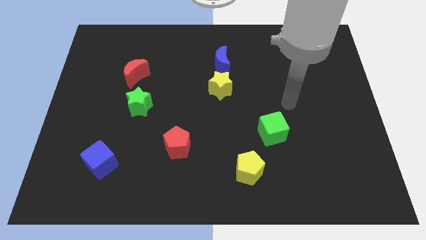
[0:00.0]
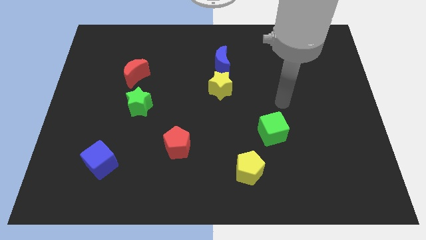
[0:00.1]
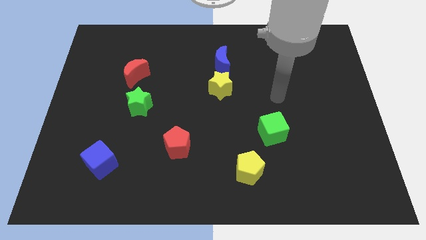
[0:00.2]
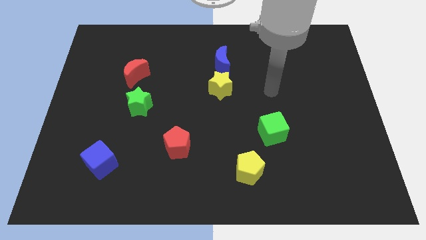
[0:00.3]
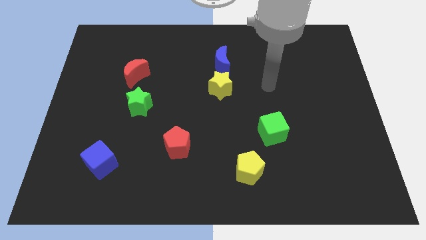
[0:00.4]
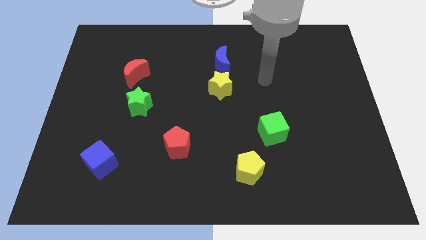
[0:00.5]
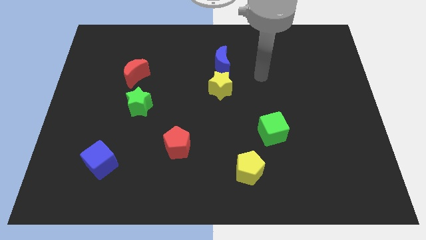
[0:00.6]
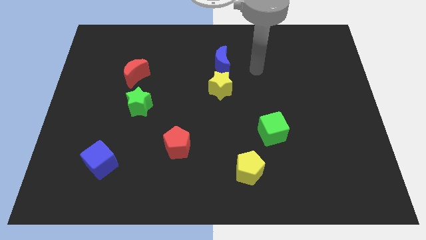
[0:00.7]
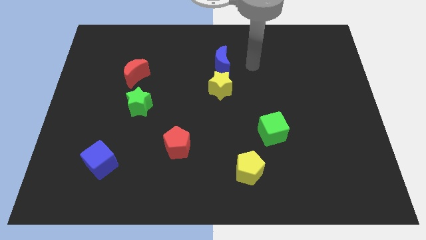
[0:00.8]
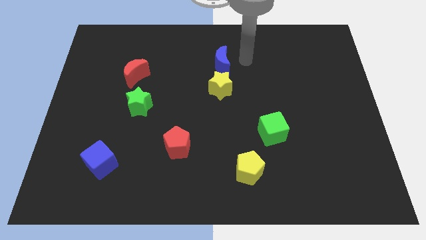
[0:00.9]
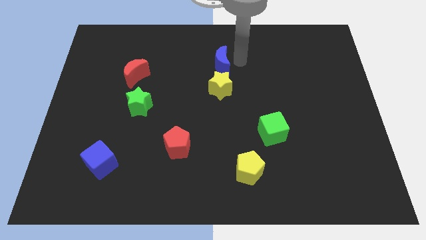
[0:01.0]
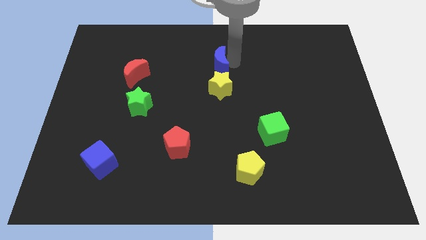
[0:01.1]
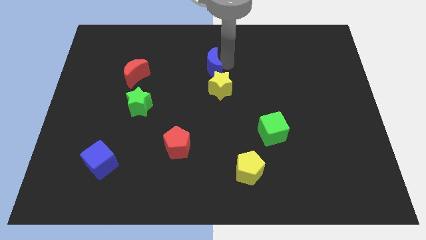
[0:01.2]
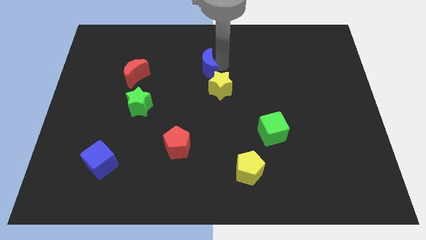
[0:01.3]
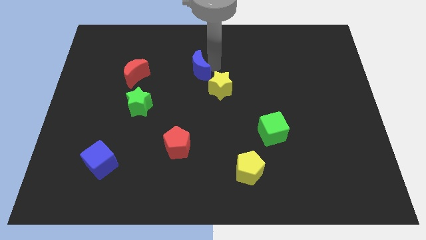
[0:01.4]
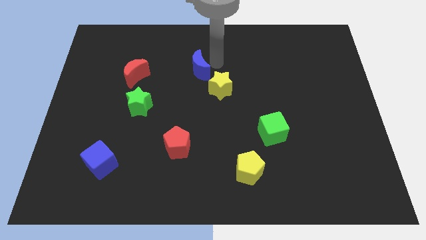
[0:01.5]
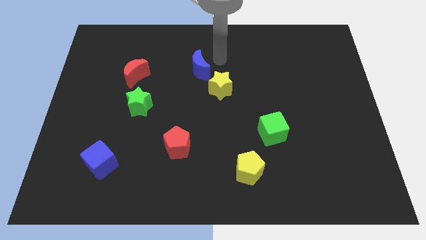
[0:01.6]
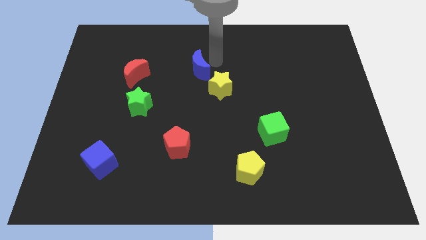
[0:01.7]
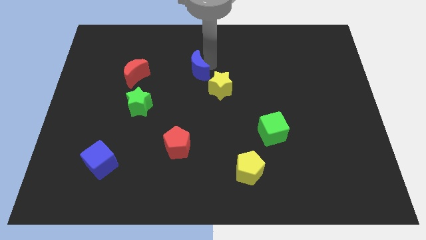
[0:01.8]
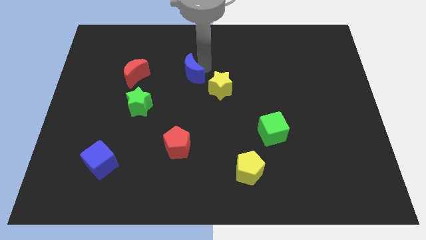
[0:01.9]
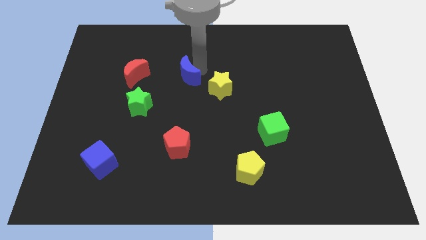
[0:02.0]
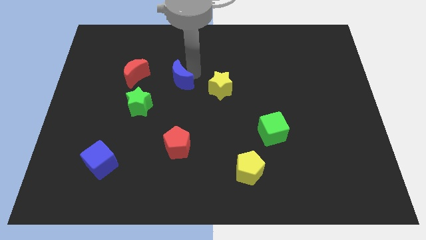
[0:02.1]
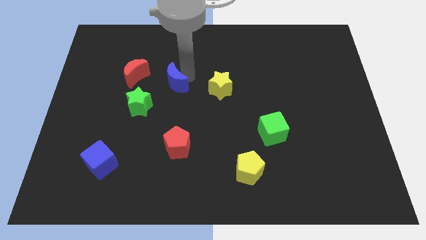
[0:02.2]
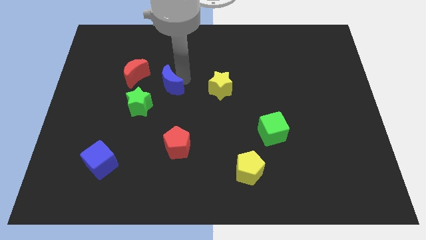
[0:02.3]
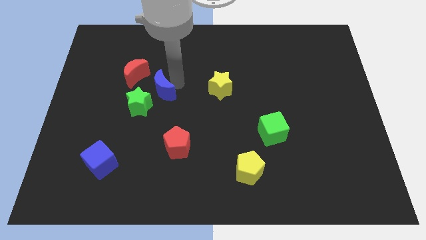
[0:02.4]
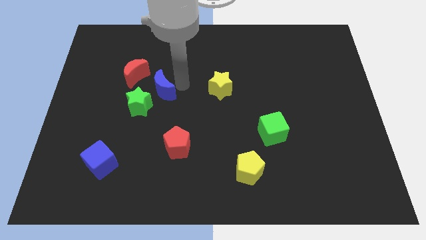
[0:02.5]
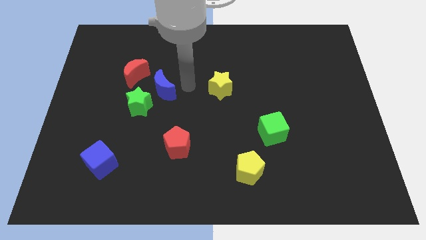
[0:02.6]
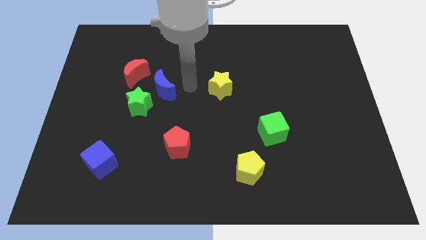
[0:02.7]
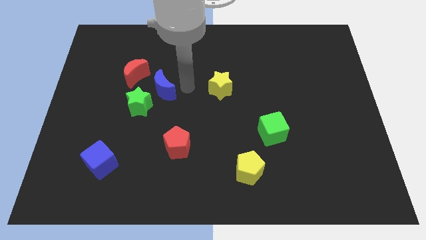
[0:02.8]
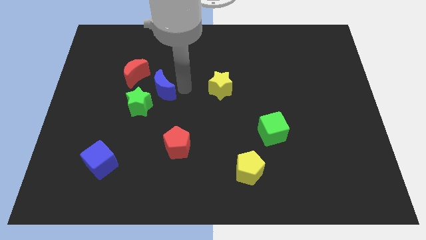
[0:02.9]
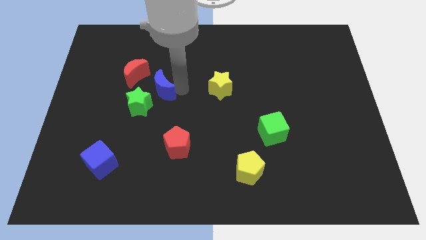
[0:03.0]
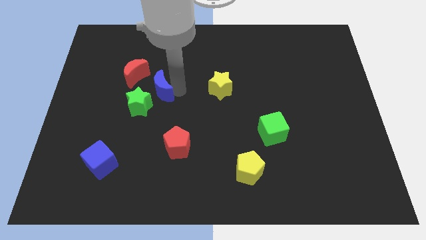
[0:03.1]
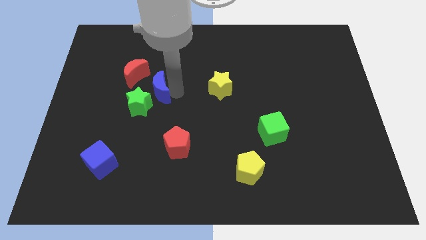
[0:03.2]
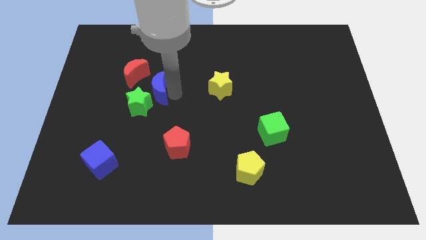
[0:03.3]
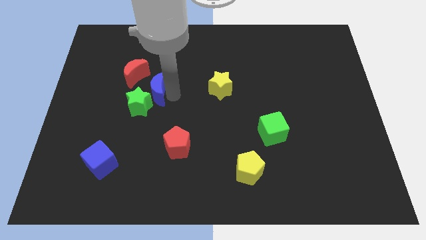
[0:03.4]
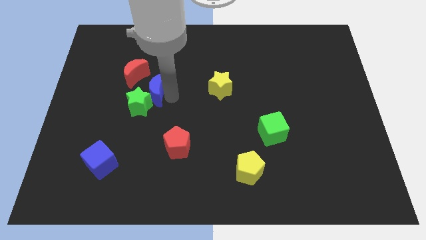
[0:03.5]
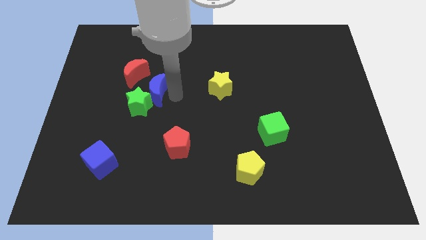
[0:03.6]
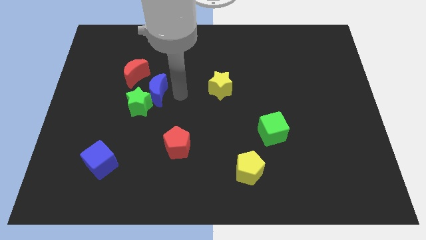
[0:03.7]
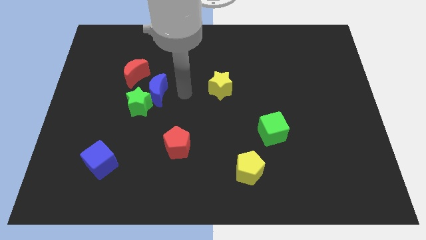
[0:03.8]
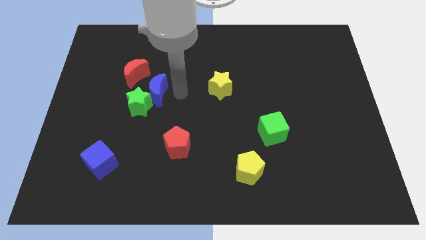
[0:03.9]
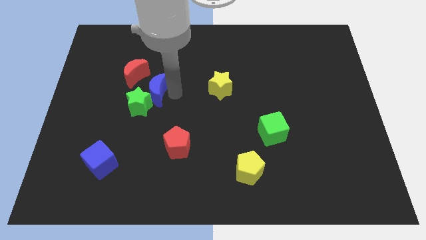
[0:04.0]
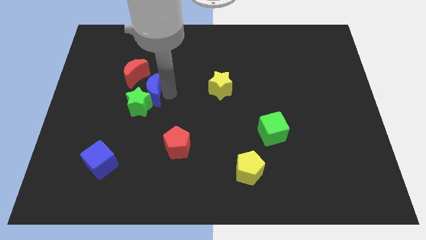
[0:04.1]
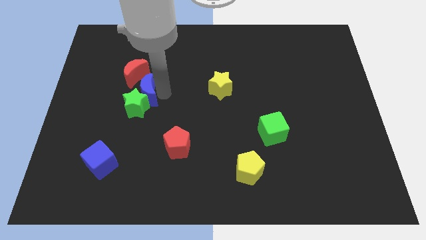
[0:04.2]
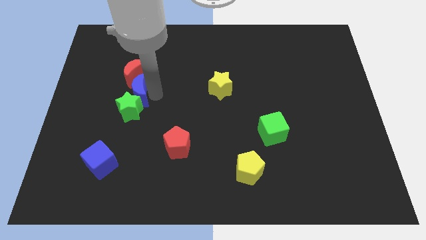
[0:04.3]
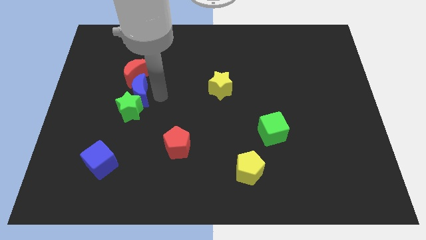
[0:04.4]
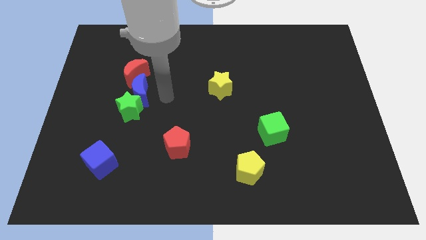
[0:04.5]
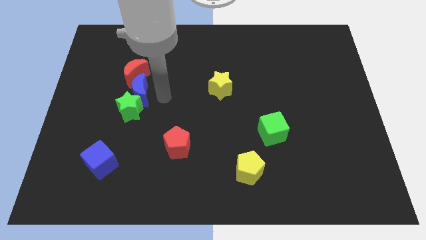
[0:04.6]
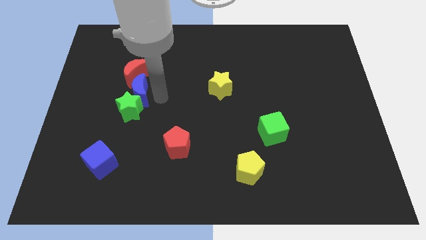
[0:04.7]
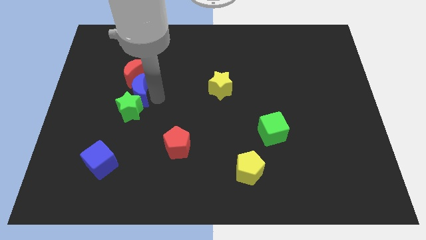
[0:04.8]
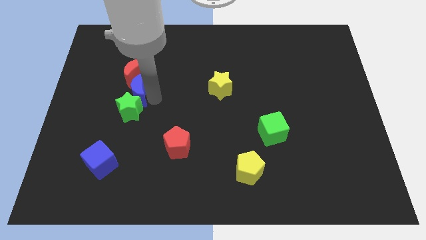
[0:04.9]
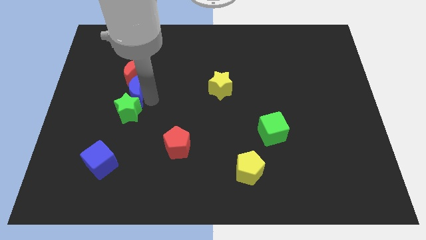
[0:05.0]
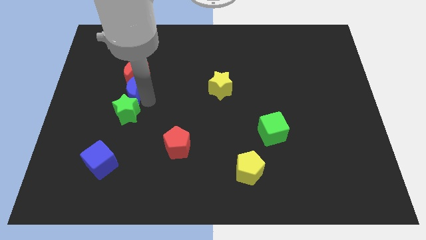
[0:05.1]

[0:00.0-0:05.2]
push the blue moon to the bottom left side of the red moon

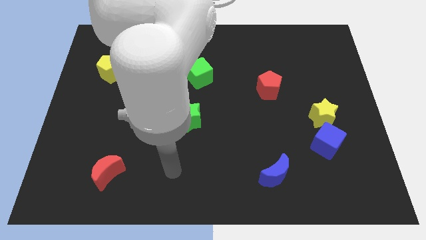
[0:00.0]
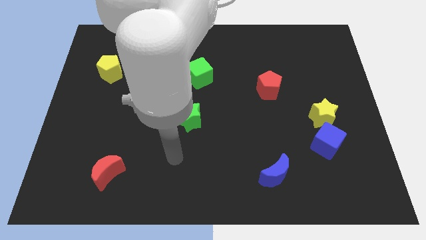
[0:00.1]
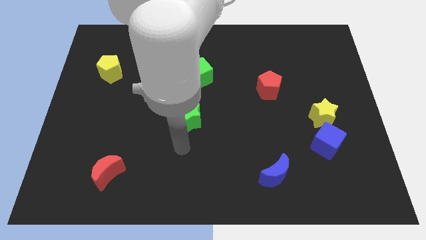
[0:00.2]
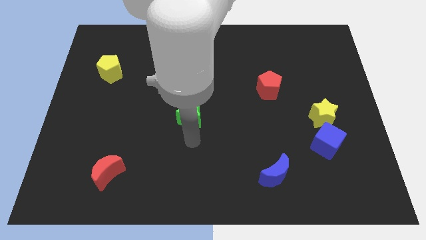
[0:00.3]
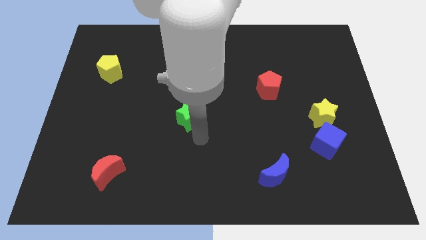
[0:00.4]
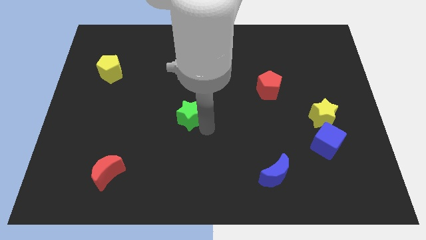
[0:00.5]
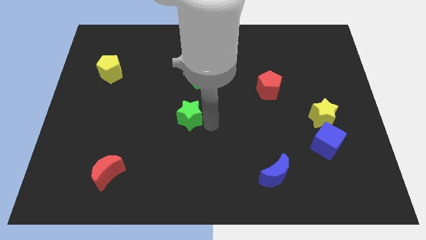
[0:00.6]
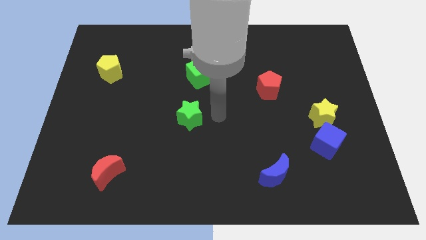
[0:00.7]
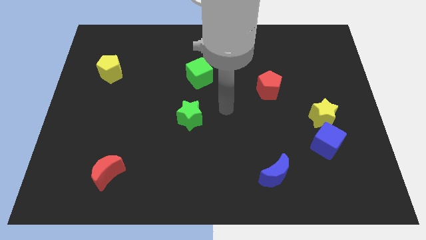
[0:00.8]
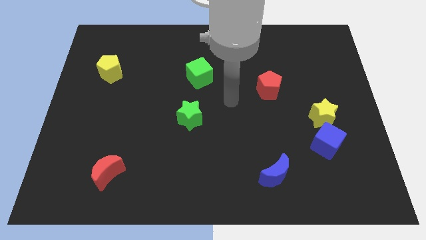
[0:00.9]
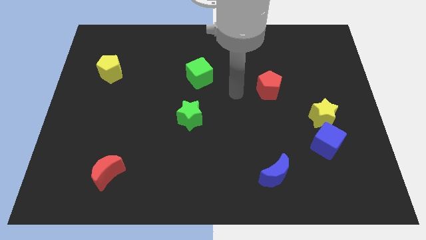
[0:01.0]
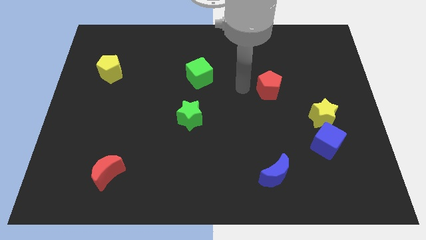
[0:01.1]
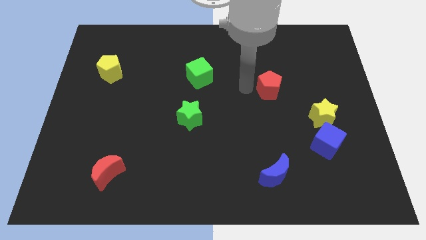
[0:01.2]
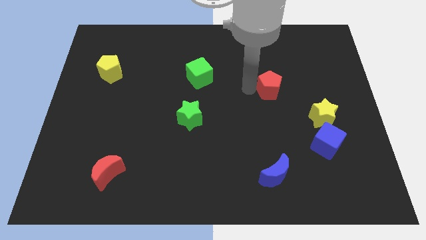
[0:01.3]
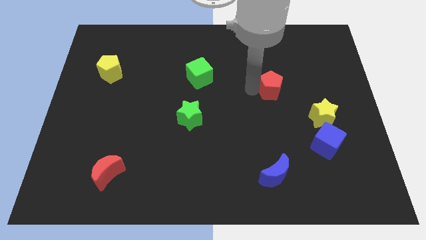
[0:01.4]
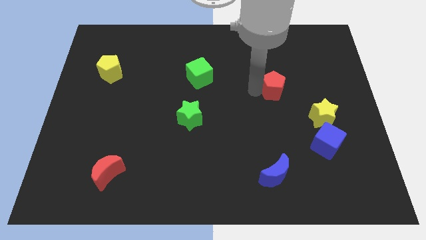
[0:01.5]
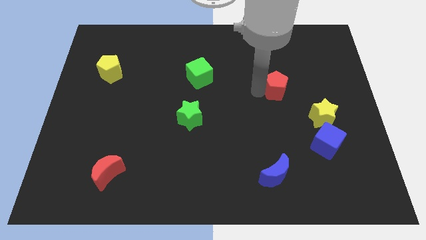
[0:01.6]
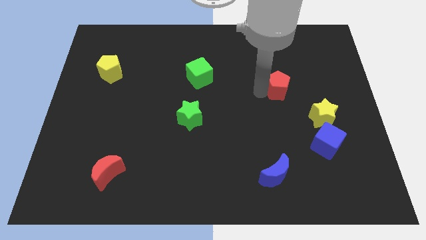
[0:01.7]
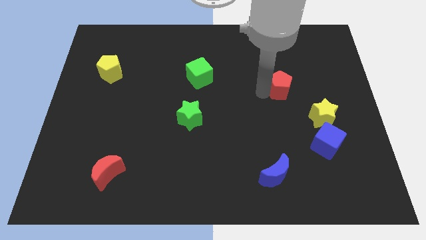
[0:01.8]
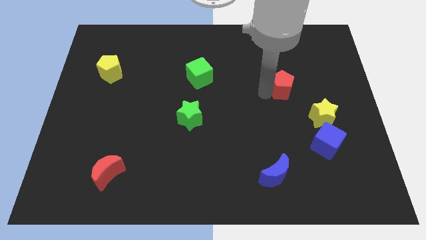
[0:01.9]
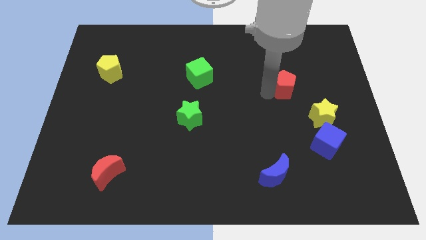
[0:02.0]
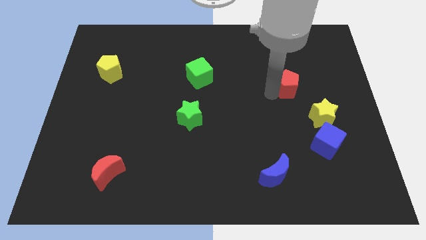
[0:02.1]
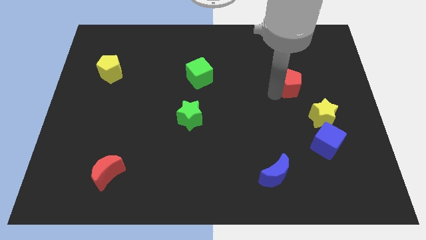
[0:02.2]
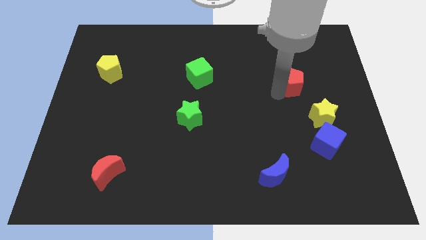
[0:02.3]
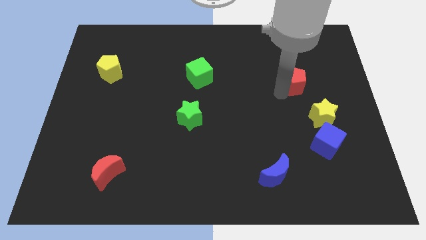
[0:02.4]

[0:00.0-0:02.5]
move the red pentagon above the yellow star

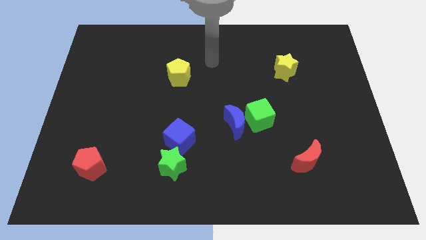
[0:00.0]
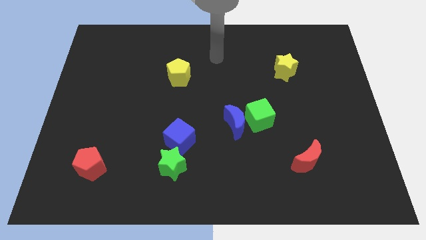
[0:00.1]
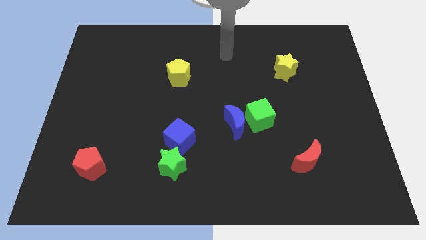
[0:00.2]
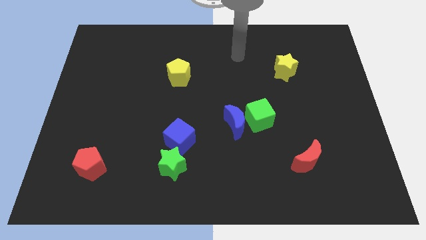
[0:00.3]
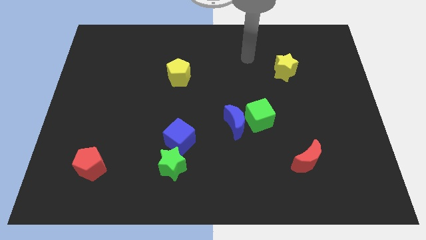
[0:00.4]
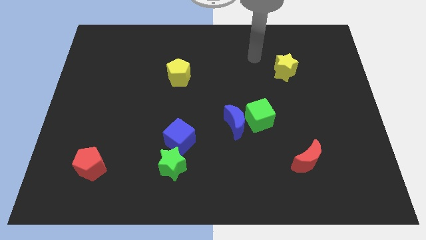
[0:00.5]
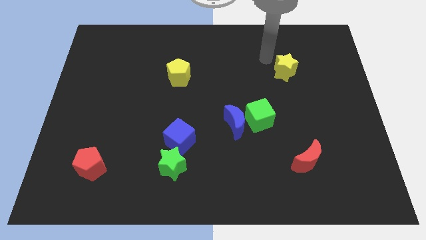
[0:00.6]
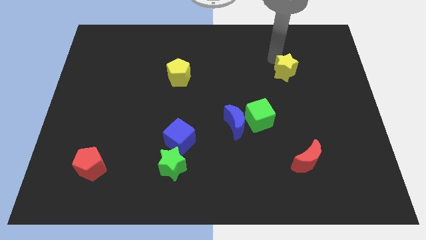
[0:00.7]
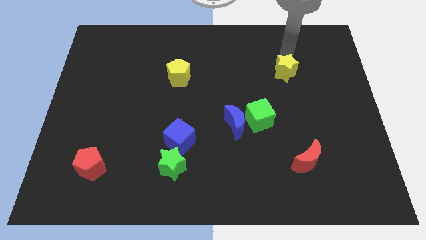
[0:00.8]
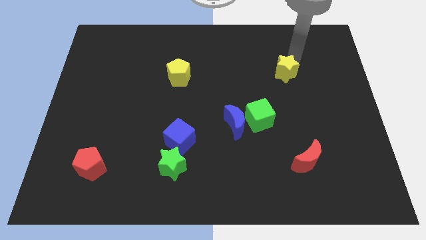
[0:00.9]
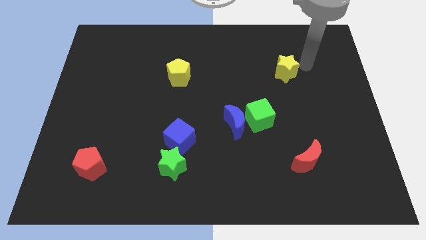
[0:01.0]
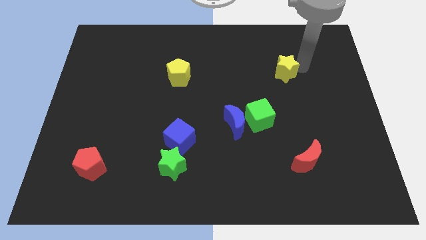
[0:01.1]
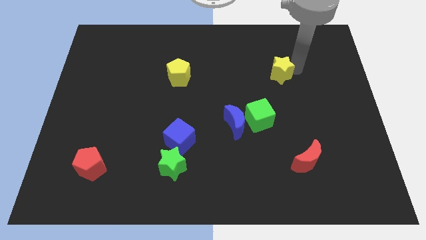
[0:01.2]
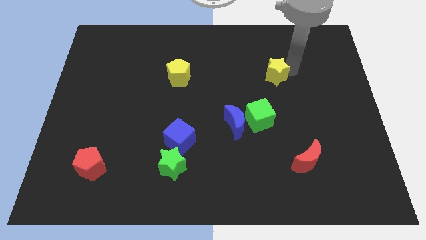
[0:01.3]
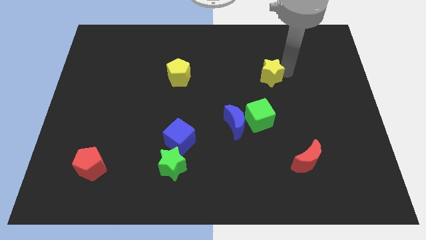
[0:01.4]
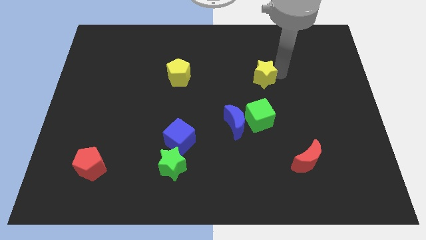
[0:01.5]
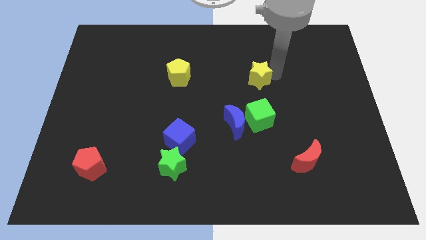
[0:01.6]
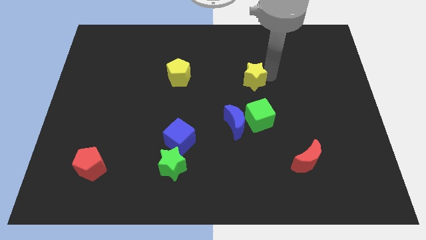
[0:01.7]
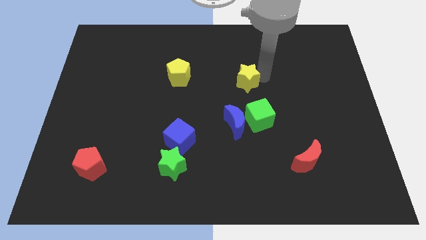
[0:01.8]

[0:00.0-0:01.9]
put the yellow star to the top of the blue moon
